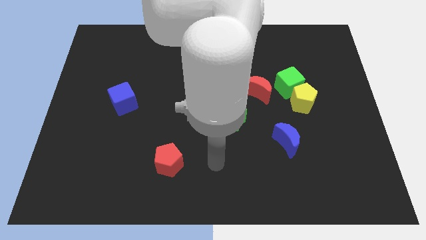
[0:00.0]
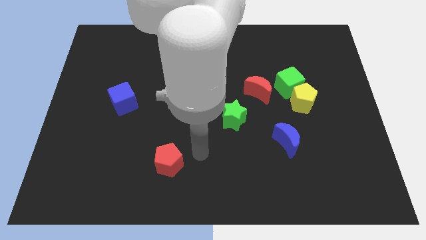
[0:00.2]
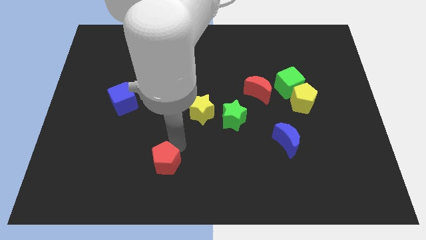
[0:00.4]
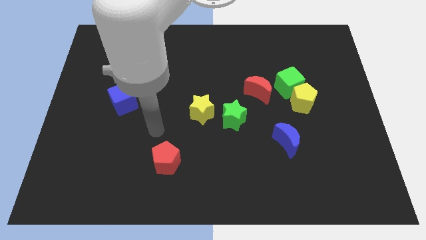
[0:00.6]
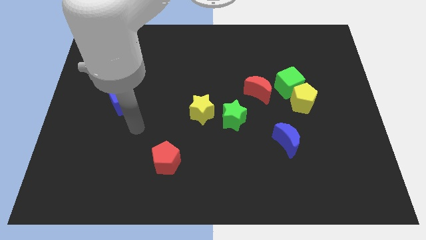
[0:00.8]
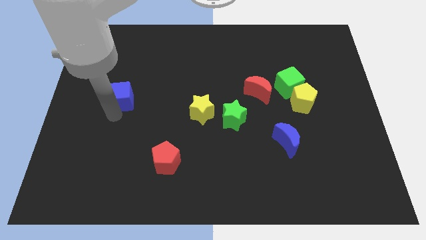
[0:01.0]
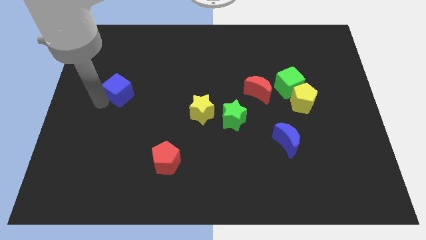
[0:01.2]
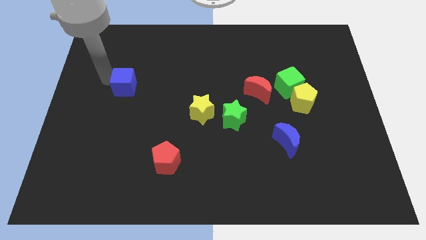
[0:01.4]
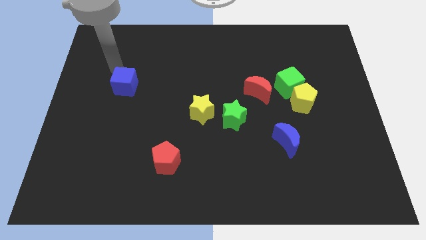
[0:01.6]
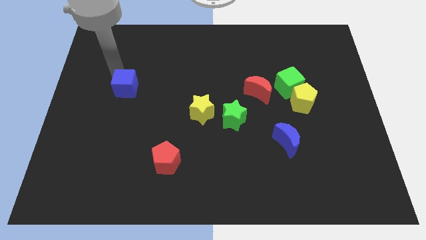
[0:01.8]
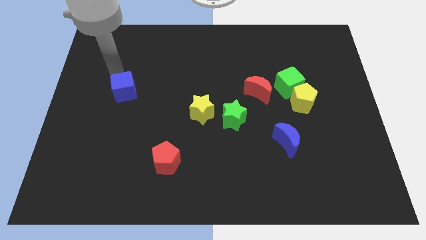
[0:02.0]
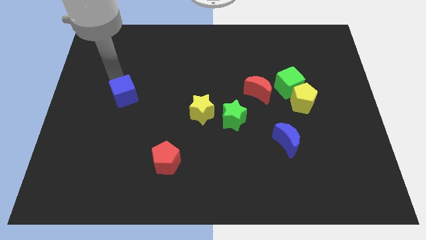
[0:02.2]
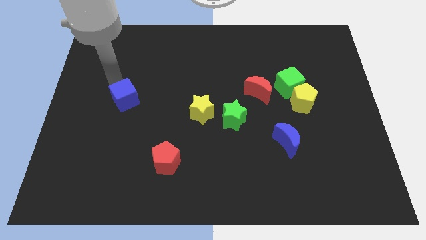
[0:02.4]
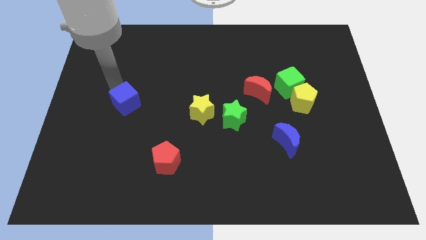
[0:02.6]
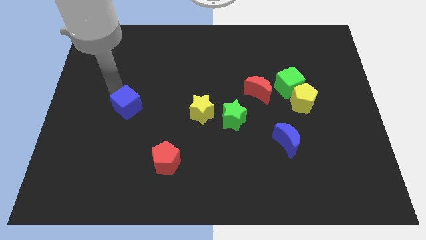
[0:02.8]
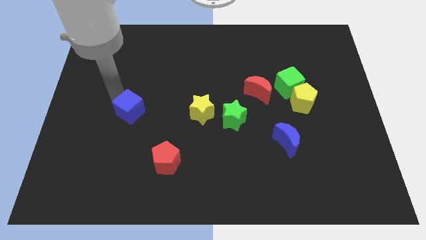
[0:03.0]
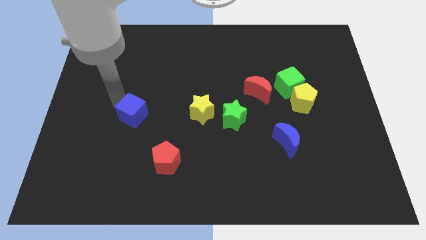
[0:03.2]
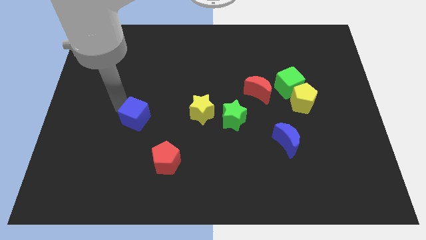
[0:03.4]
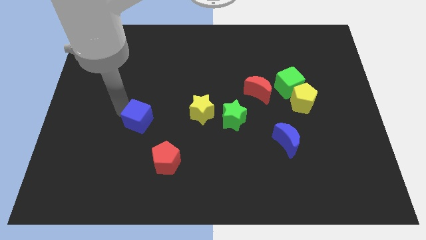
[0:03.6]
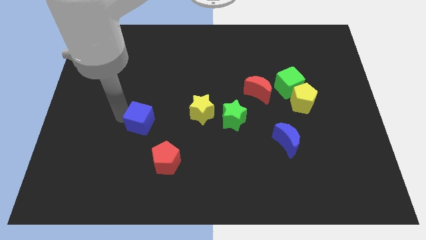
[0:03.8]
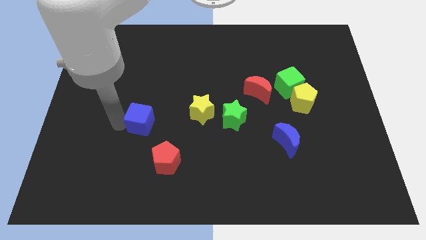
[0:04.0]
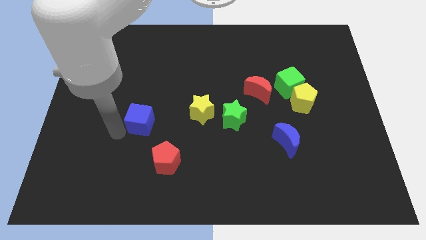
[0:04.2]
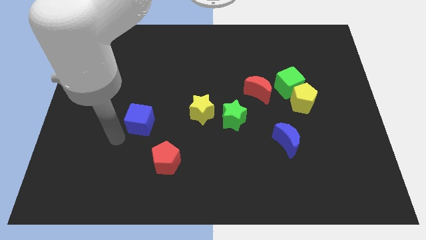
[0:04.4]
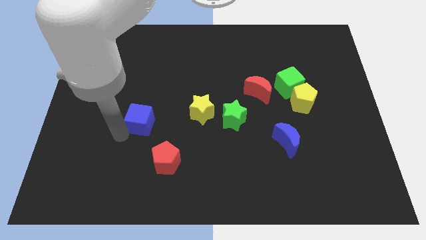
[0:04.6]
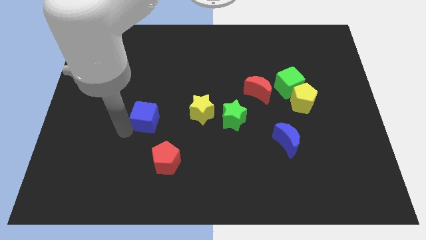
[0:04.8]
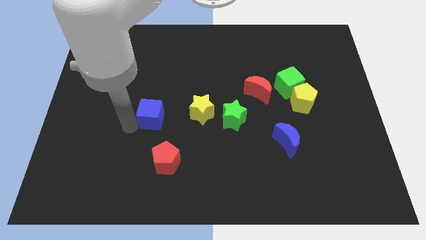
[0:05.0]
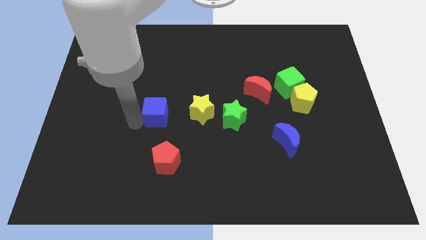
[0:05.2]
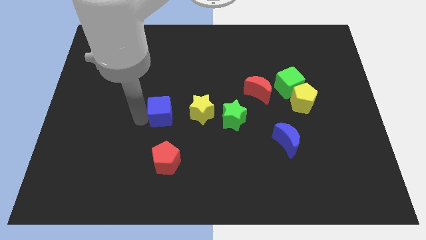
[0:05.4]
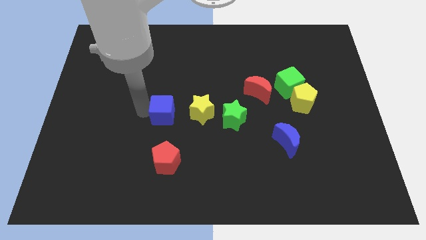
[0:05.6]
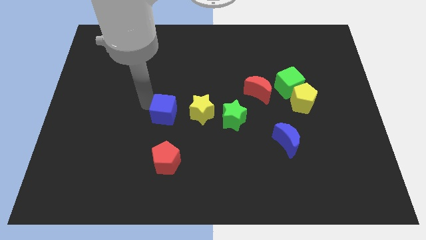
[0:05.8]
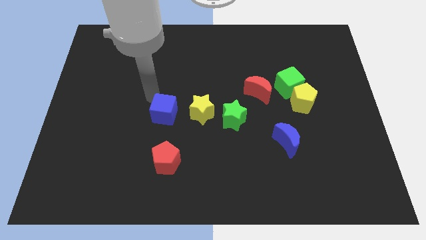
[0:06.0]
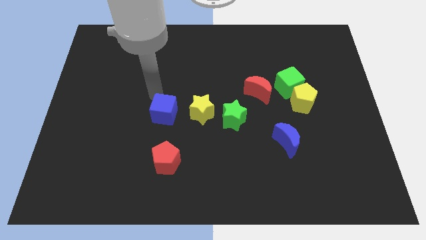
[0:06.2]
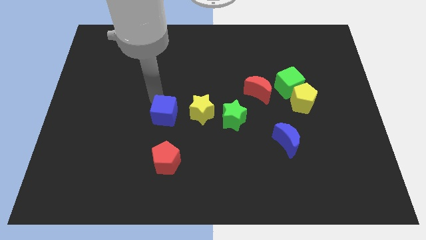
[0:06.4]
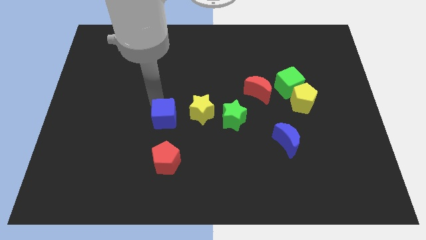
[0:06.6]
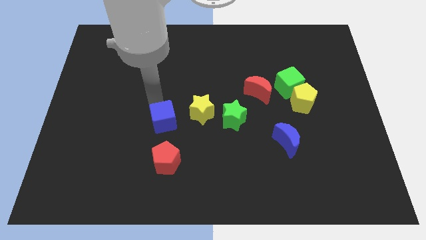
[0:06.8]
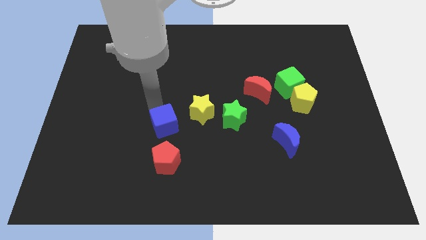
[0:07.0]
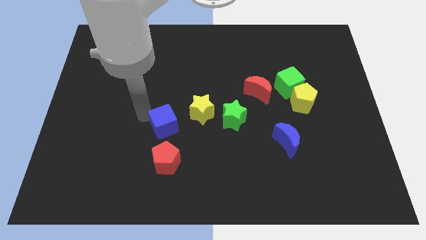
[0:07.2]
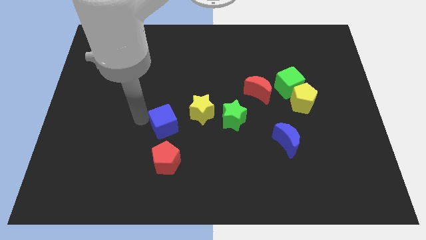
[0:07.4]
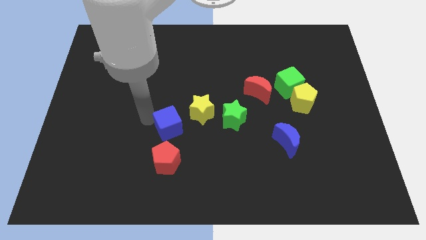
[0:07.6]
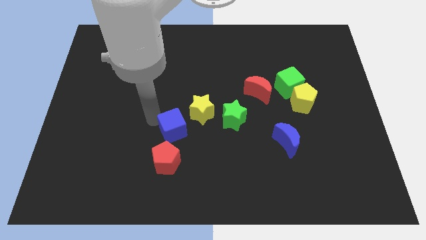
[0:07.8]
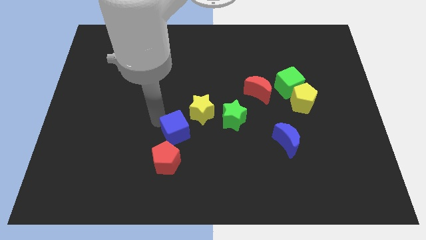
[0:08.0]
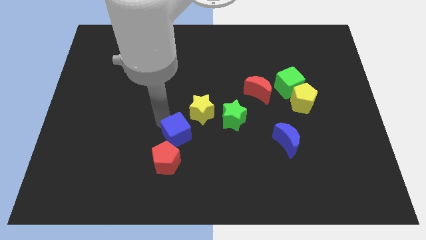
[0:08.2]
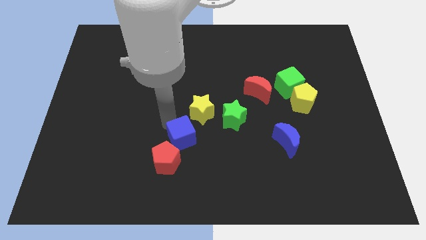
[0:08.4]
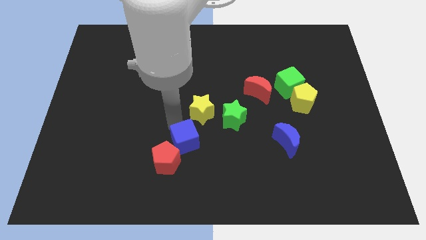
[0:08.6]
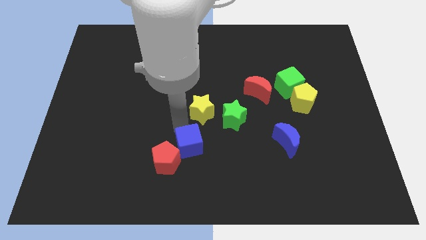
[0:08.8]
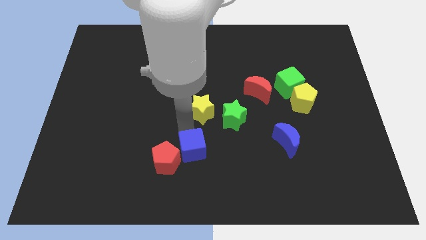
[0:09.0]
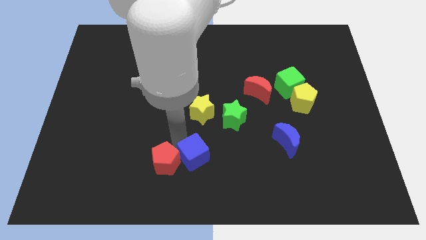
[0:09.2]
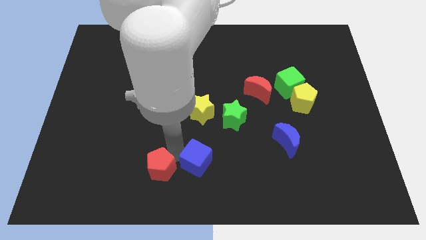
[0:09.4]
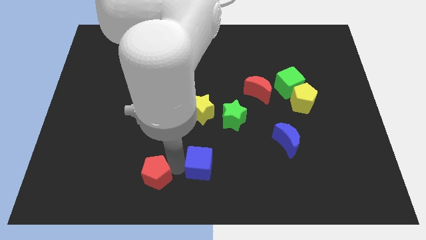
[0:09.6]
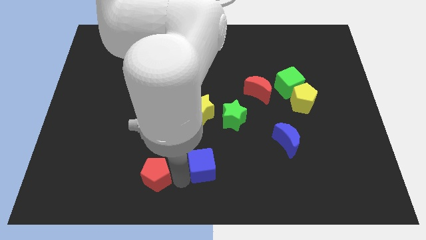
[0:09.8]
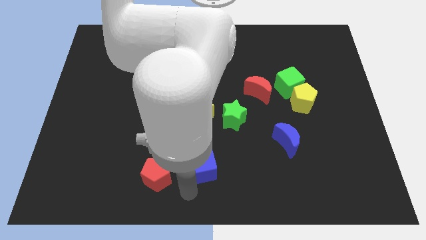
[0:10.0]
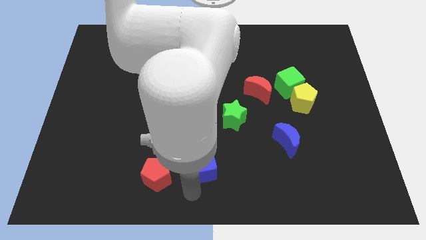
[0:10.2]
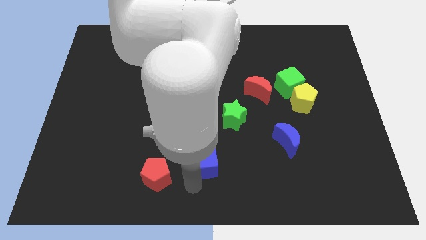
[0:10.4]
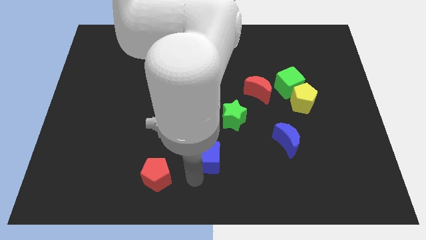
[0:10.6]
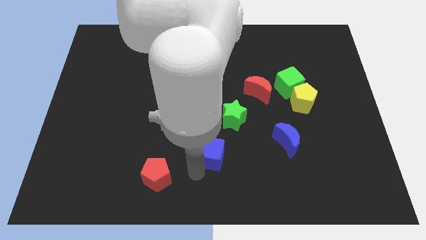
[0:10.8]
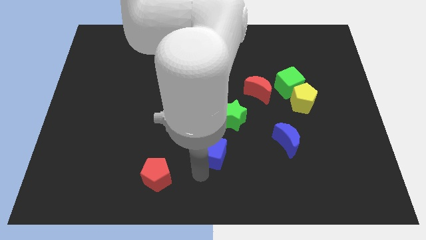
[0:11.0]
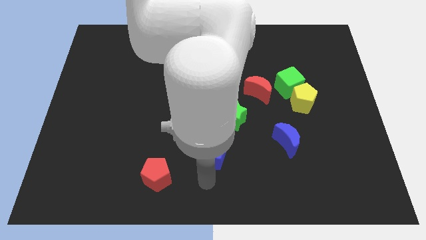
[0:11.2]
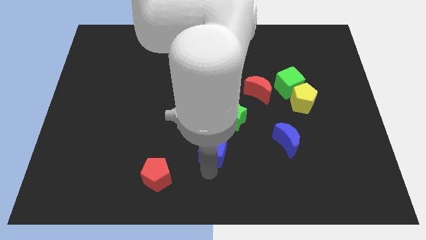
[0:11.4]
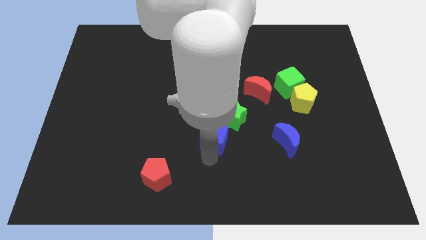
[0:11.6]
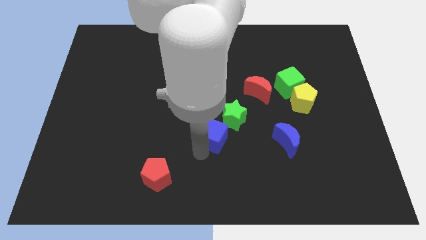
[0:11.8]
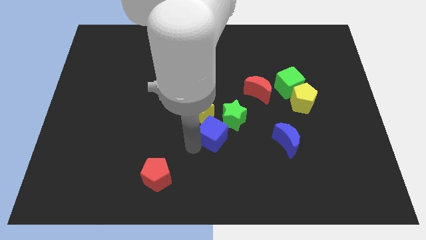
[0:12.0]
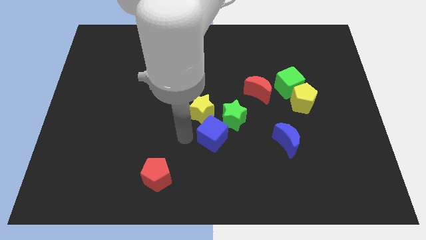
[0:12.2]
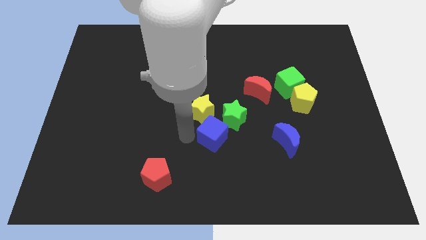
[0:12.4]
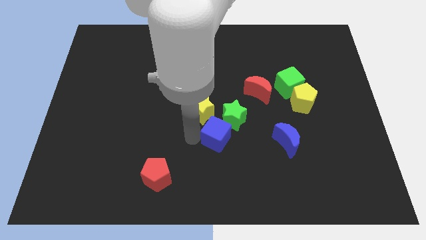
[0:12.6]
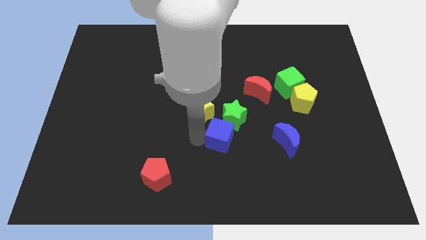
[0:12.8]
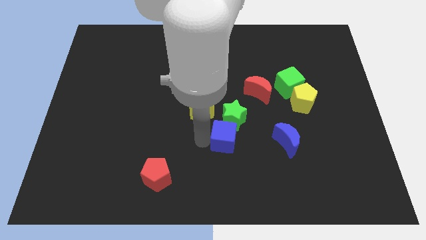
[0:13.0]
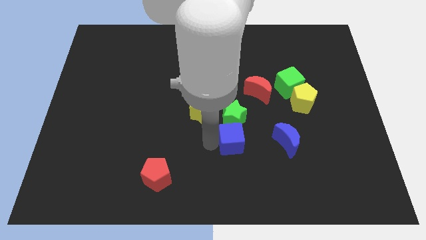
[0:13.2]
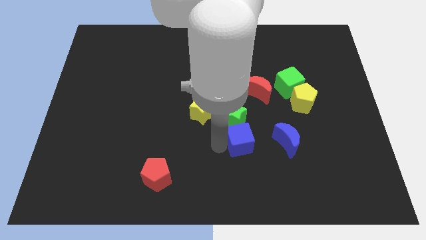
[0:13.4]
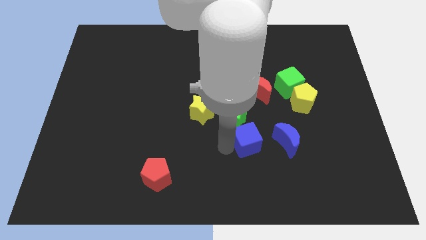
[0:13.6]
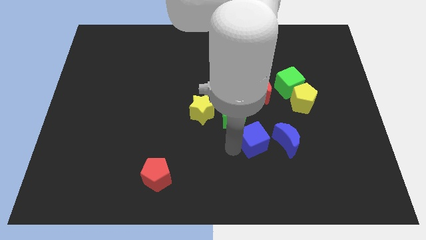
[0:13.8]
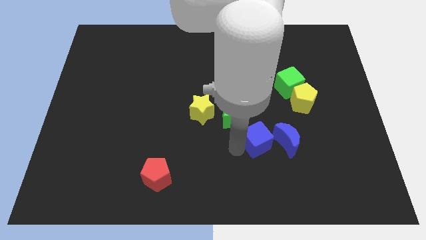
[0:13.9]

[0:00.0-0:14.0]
slide the blue cube diagonally up and to the left of the blue moon
